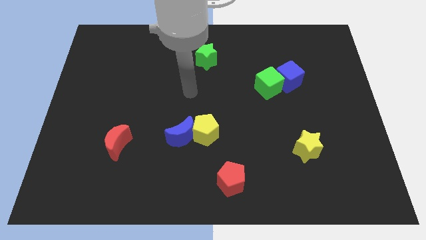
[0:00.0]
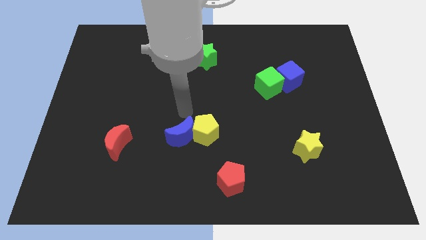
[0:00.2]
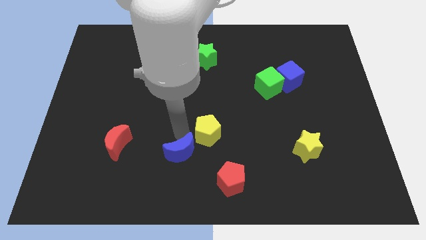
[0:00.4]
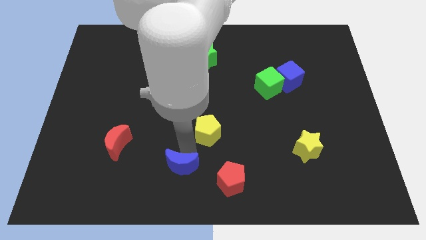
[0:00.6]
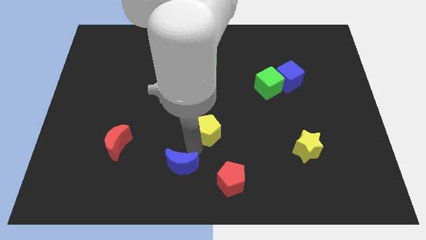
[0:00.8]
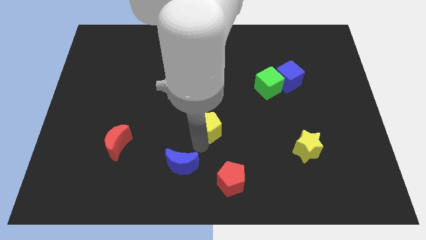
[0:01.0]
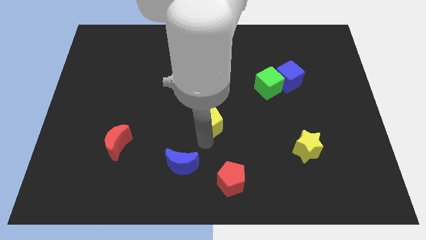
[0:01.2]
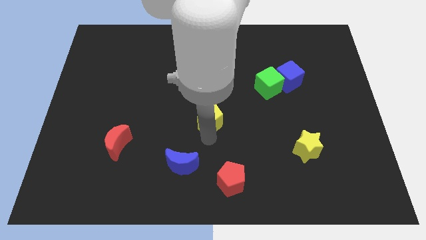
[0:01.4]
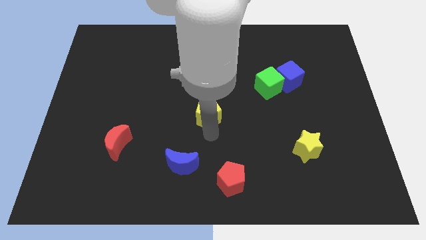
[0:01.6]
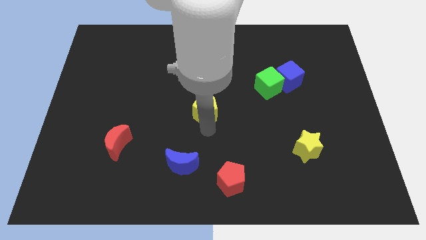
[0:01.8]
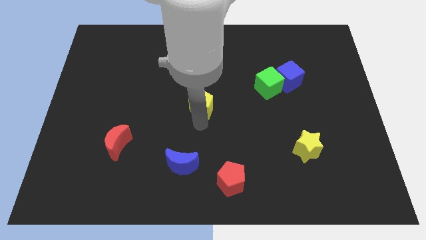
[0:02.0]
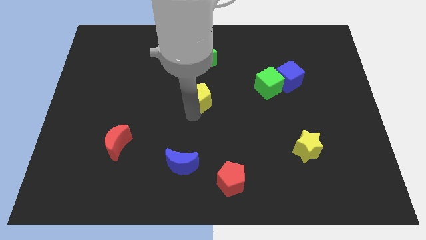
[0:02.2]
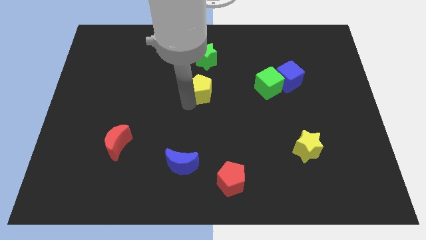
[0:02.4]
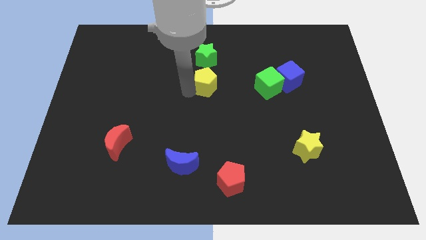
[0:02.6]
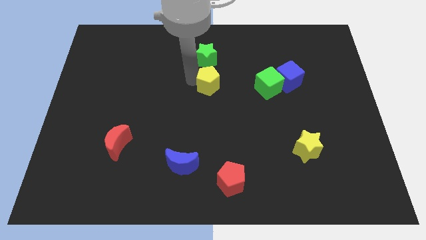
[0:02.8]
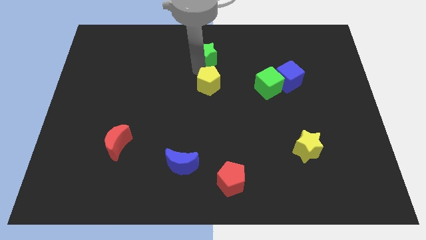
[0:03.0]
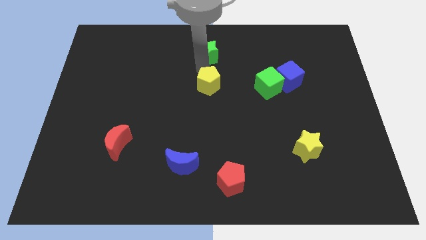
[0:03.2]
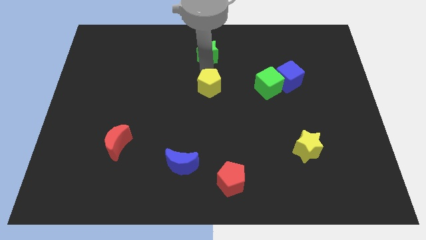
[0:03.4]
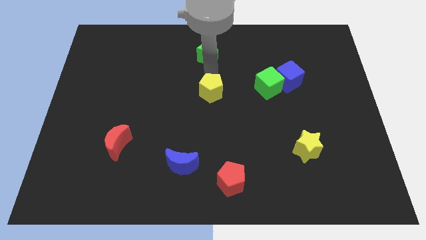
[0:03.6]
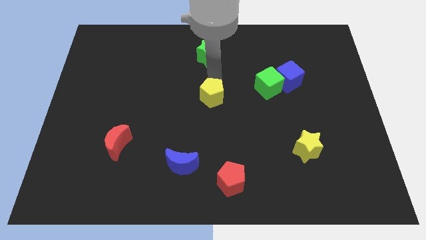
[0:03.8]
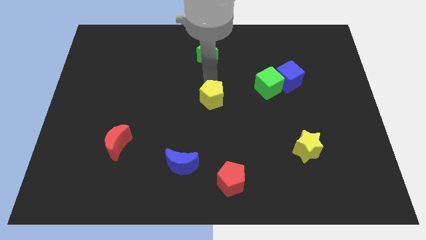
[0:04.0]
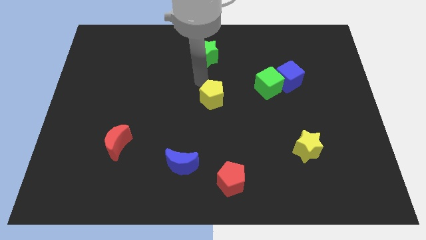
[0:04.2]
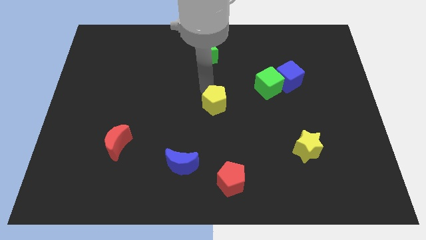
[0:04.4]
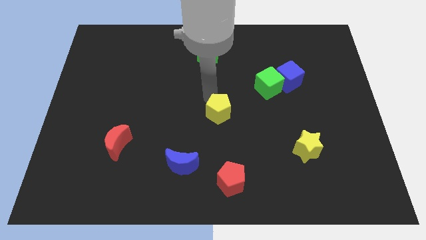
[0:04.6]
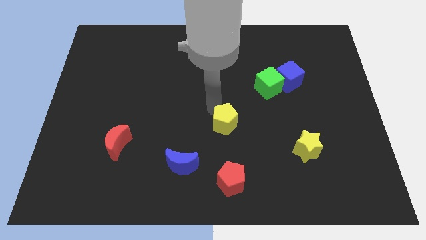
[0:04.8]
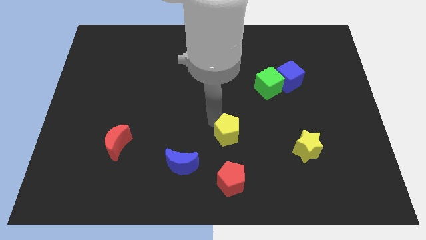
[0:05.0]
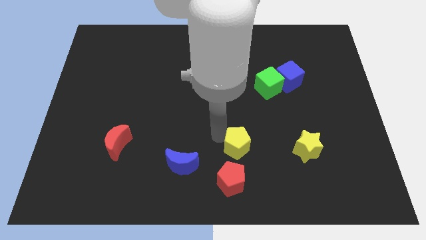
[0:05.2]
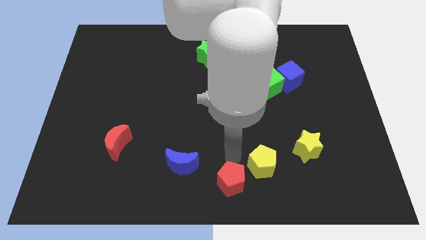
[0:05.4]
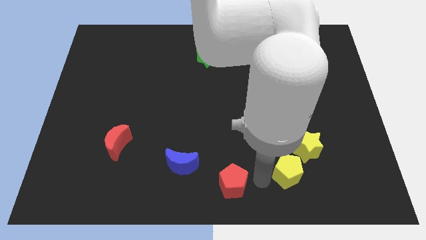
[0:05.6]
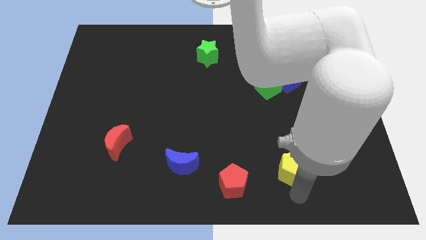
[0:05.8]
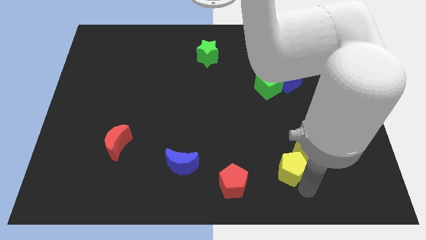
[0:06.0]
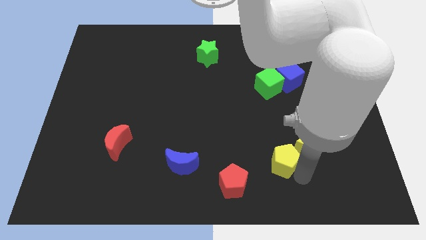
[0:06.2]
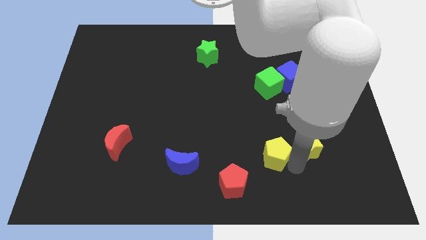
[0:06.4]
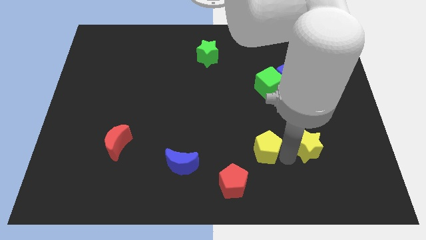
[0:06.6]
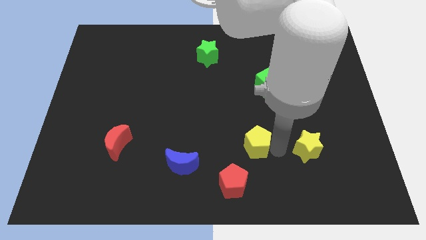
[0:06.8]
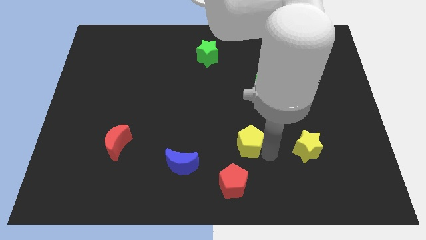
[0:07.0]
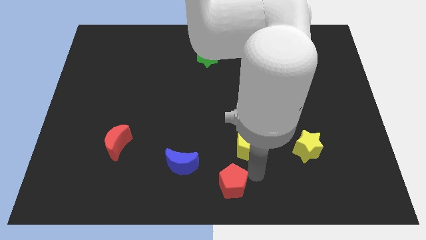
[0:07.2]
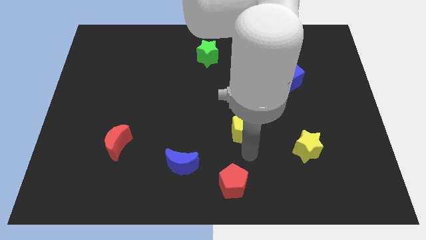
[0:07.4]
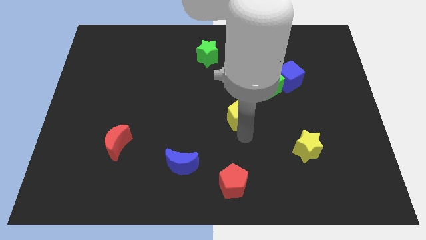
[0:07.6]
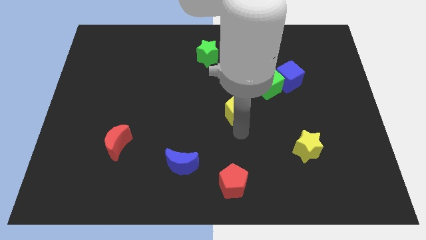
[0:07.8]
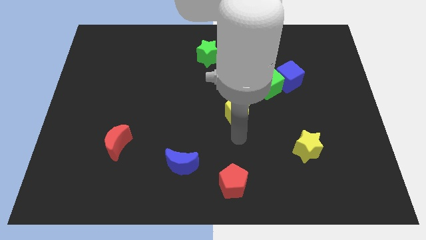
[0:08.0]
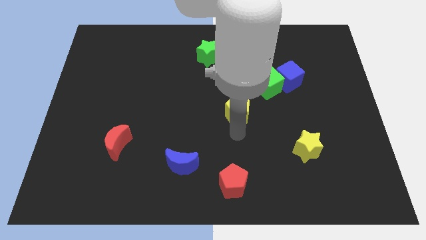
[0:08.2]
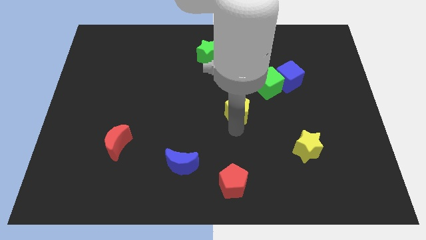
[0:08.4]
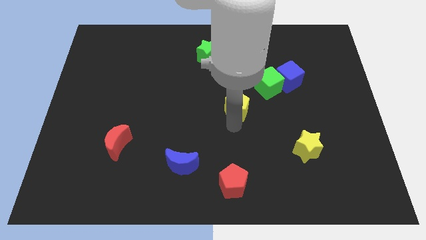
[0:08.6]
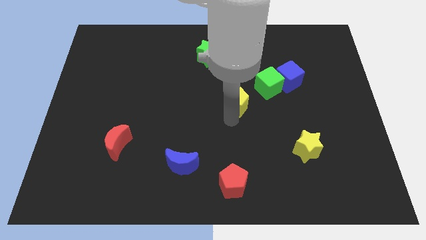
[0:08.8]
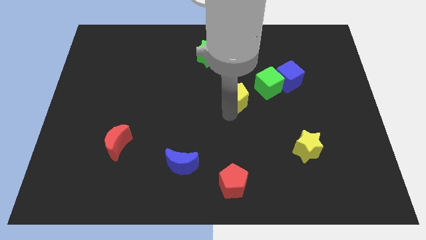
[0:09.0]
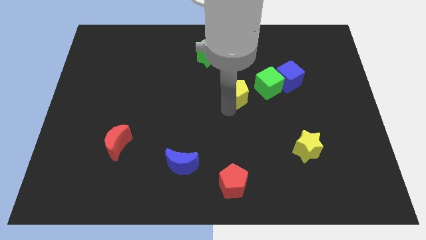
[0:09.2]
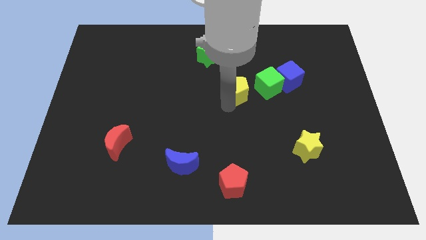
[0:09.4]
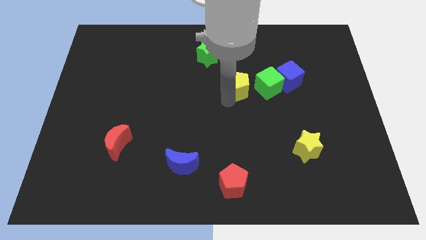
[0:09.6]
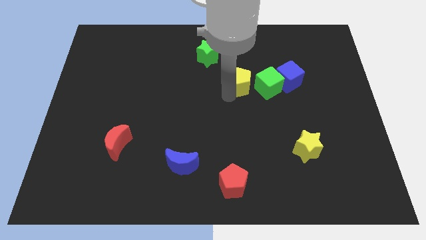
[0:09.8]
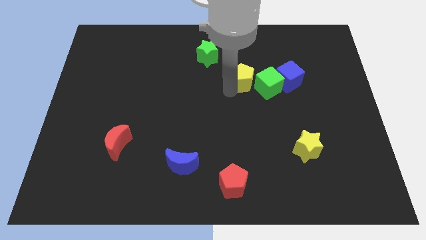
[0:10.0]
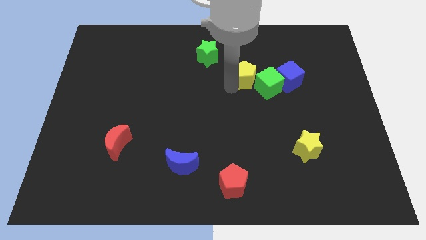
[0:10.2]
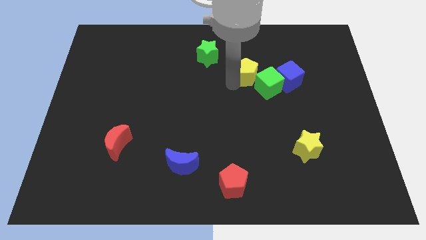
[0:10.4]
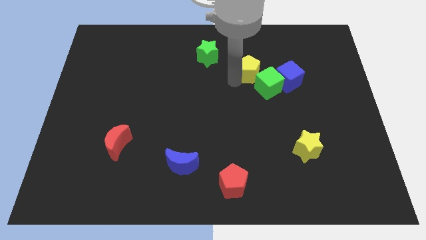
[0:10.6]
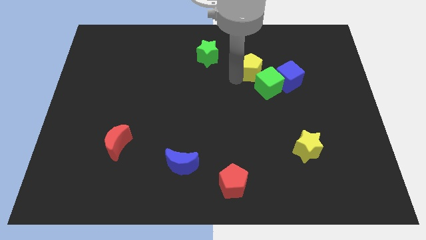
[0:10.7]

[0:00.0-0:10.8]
move the yellow pentagon upwards and to the right

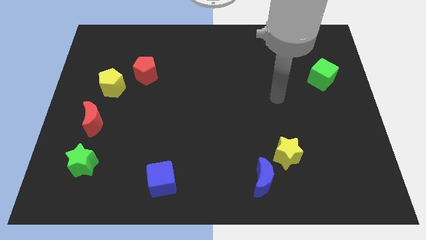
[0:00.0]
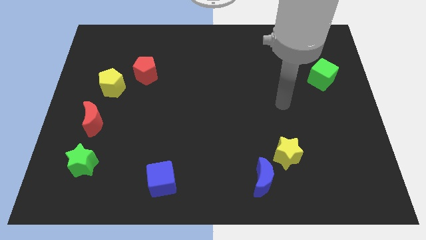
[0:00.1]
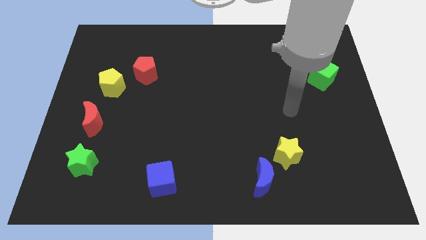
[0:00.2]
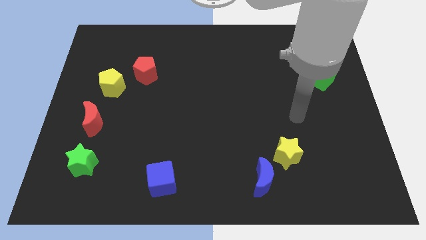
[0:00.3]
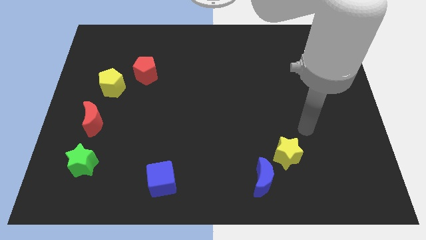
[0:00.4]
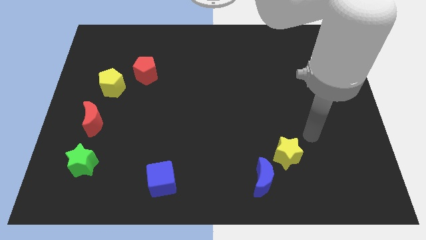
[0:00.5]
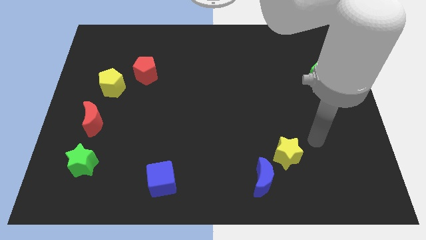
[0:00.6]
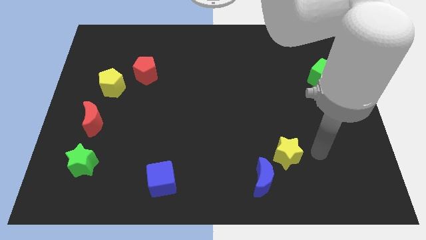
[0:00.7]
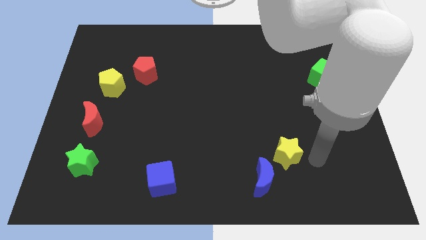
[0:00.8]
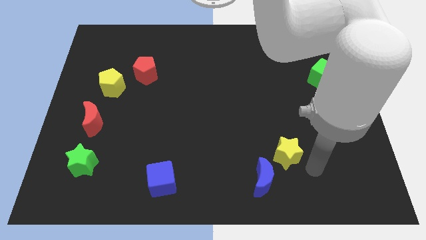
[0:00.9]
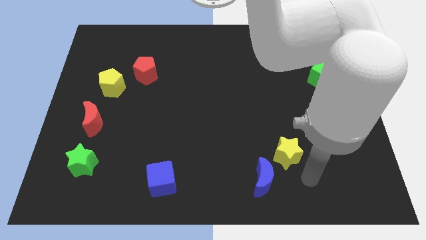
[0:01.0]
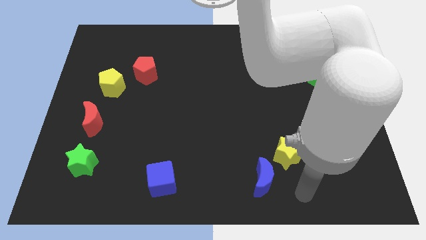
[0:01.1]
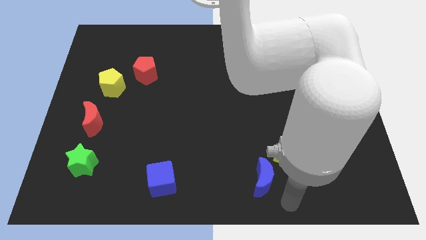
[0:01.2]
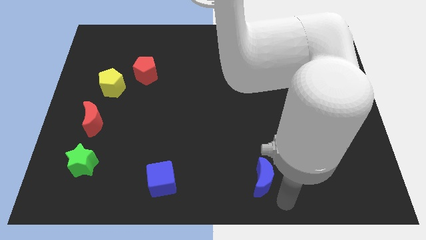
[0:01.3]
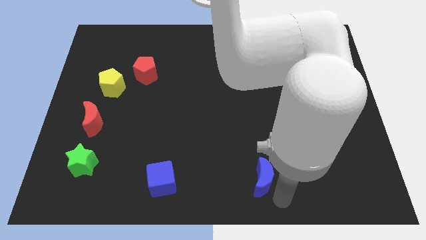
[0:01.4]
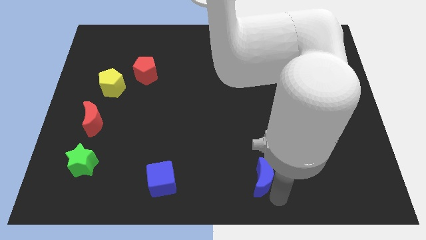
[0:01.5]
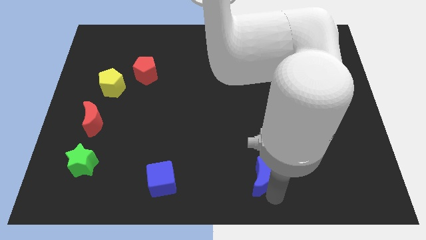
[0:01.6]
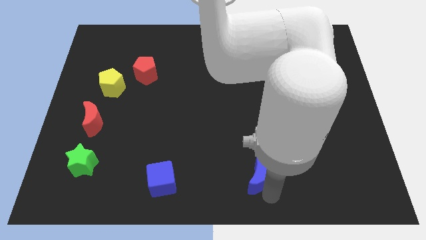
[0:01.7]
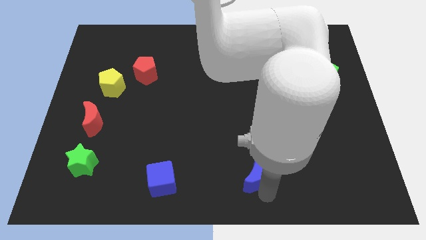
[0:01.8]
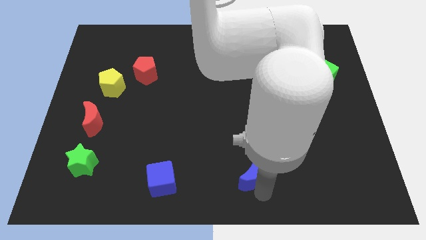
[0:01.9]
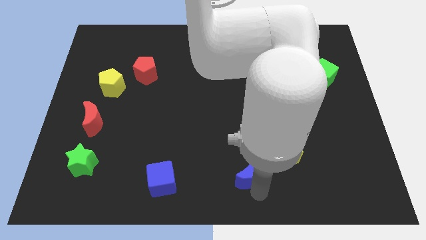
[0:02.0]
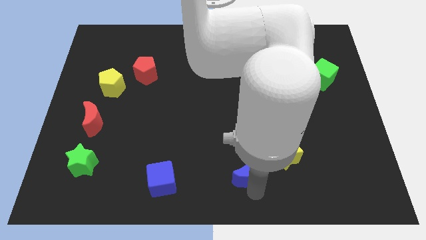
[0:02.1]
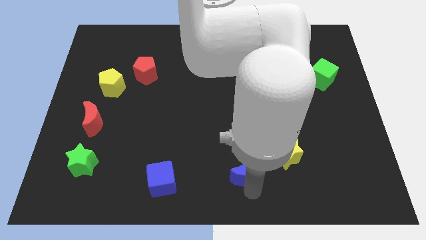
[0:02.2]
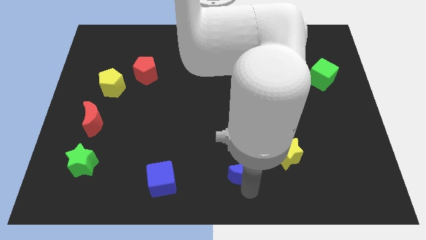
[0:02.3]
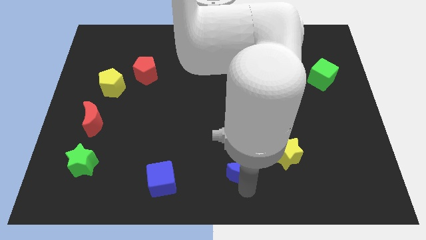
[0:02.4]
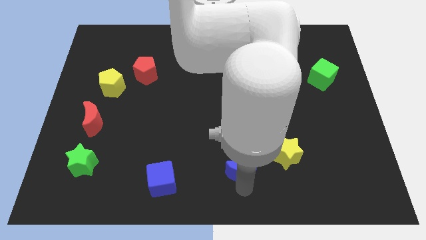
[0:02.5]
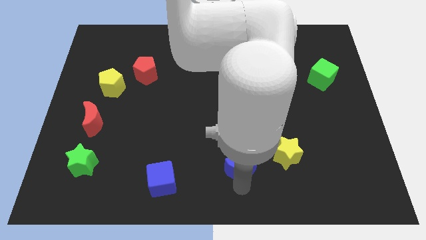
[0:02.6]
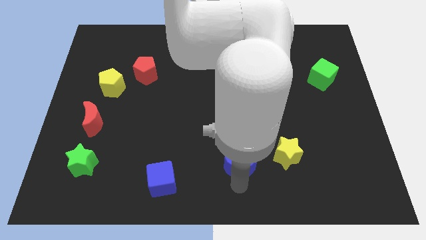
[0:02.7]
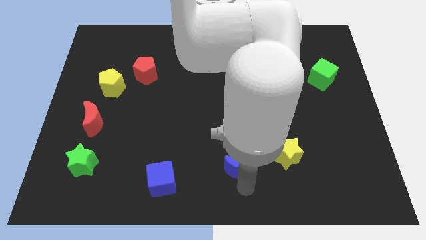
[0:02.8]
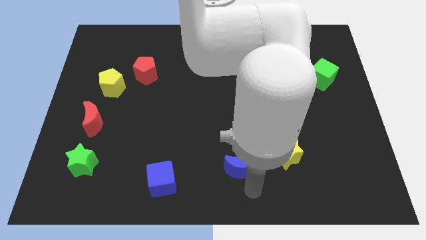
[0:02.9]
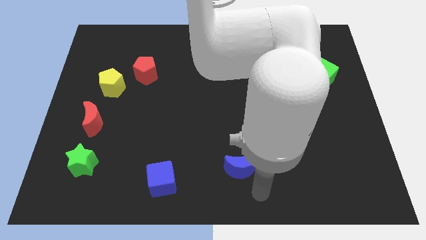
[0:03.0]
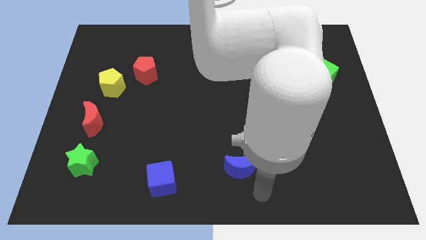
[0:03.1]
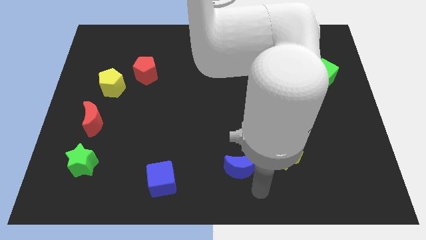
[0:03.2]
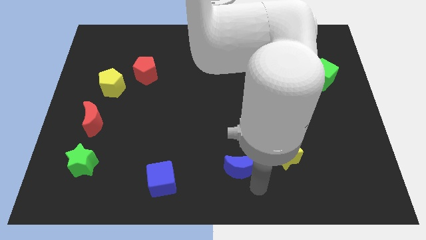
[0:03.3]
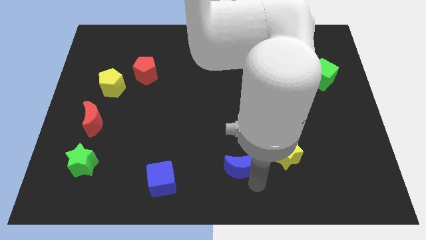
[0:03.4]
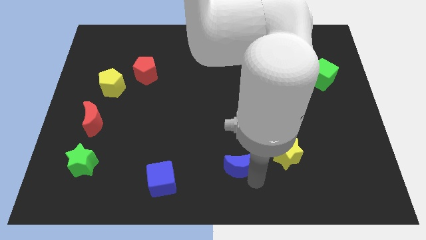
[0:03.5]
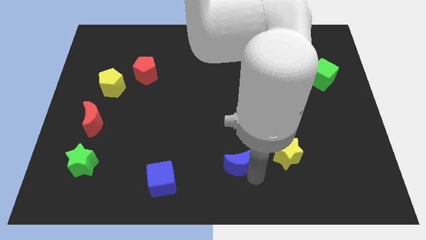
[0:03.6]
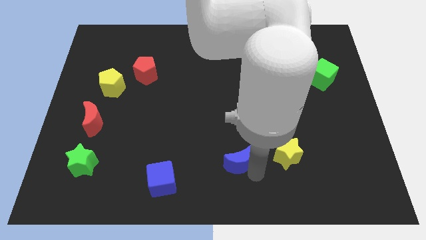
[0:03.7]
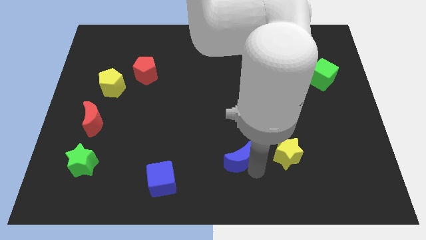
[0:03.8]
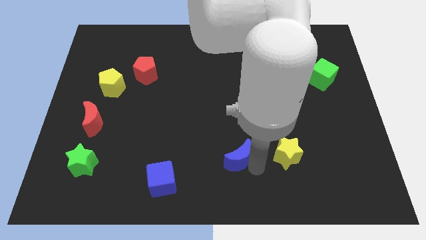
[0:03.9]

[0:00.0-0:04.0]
push the blue moon diagonally up and left a little
